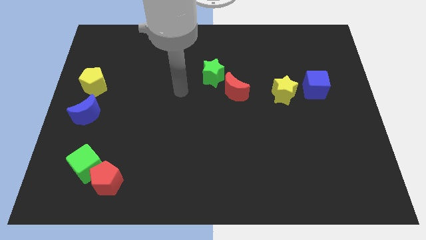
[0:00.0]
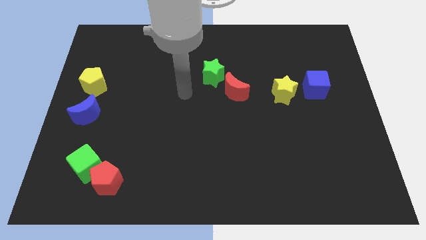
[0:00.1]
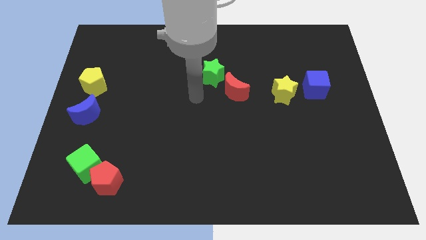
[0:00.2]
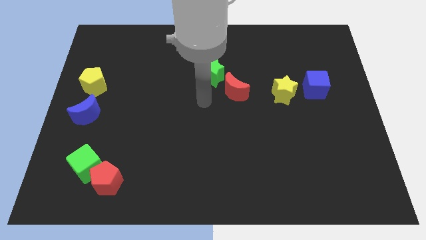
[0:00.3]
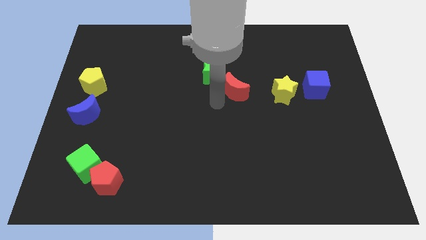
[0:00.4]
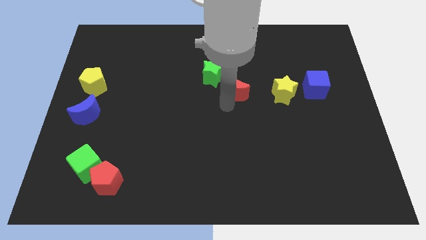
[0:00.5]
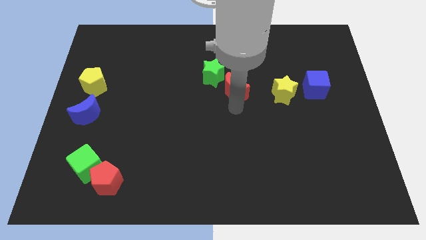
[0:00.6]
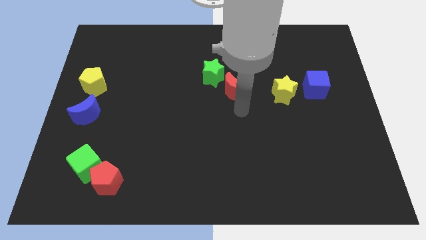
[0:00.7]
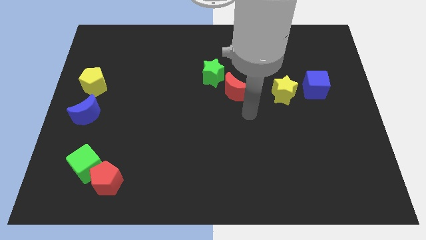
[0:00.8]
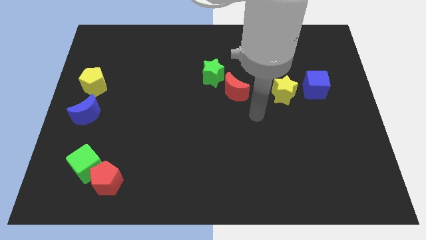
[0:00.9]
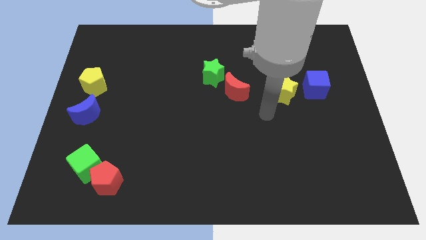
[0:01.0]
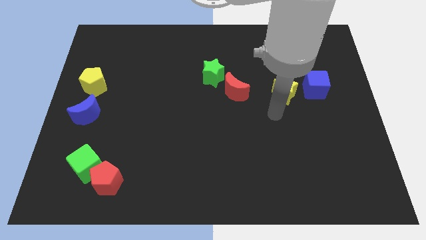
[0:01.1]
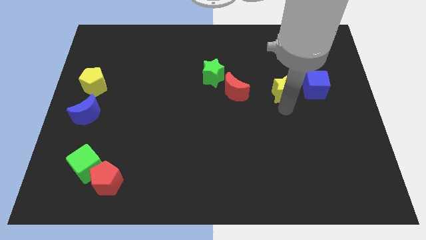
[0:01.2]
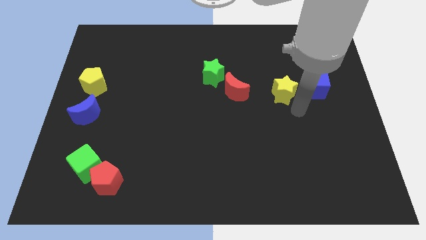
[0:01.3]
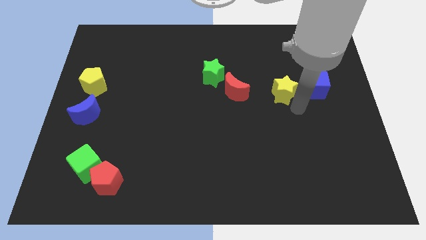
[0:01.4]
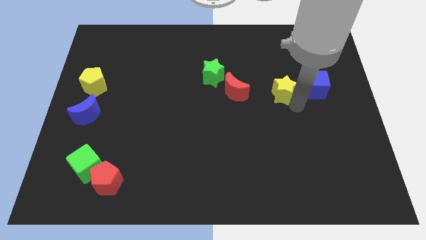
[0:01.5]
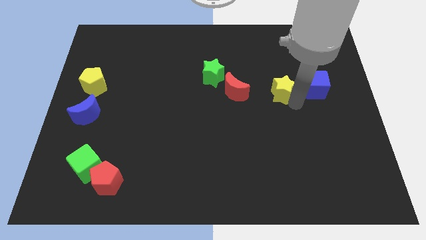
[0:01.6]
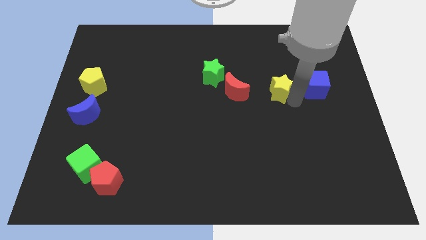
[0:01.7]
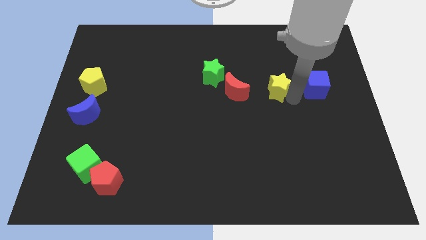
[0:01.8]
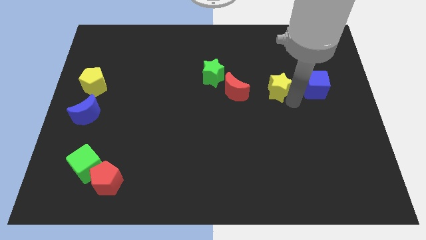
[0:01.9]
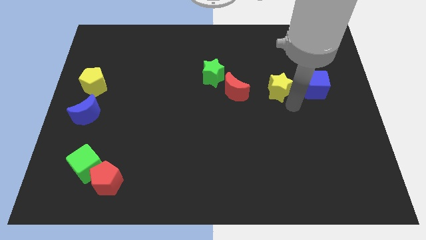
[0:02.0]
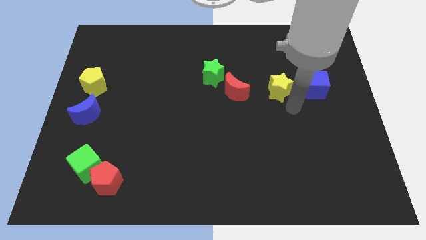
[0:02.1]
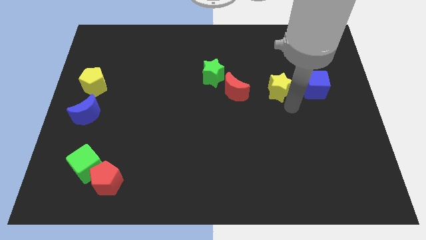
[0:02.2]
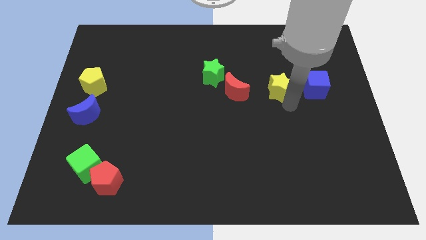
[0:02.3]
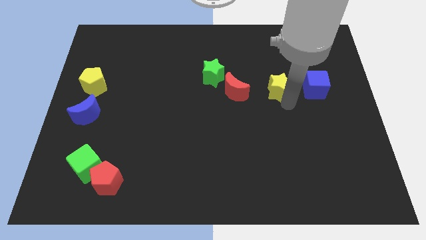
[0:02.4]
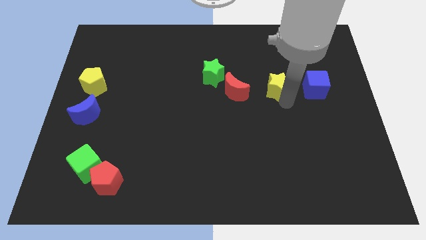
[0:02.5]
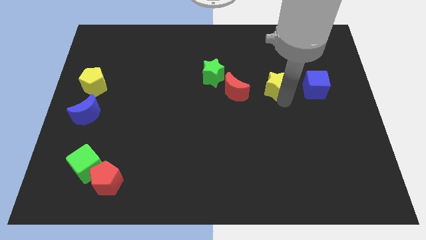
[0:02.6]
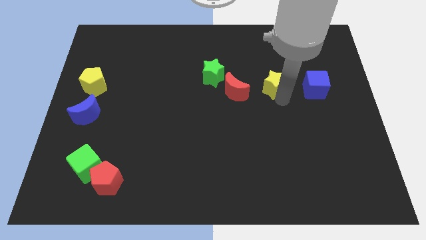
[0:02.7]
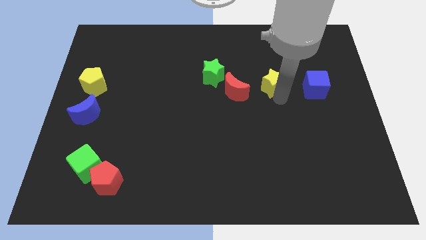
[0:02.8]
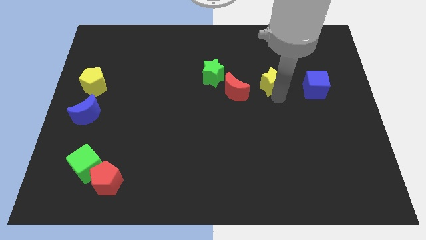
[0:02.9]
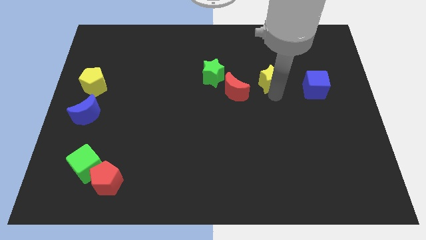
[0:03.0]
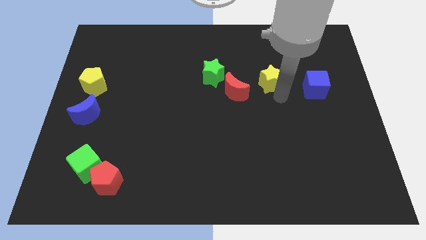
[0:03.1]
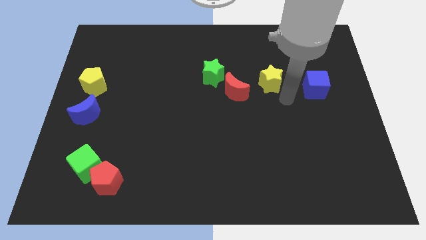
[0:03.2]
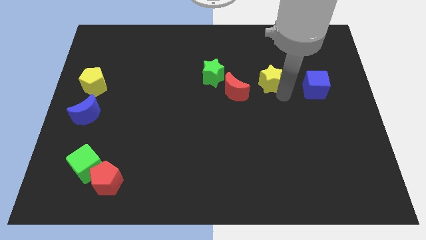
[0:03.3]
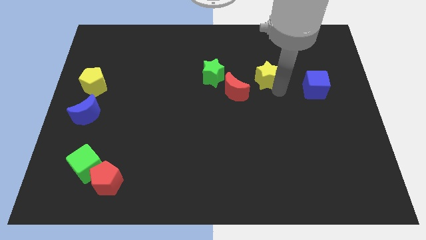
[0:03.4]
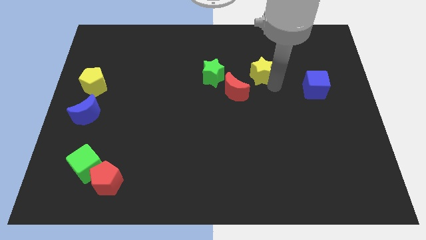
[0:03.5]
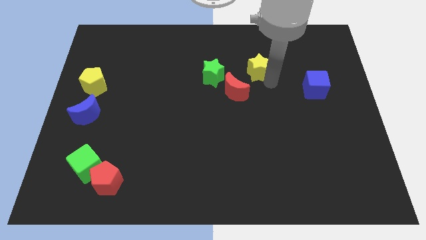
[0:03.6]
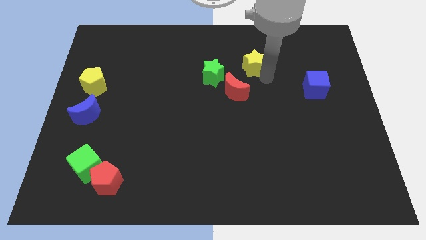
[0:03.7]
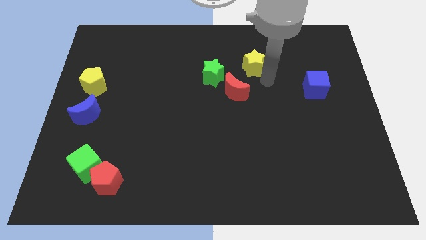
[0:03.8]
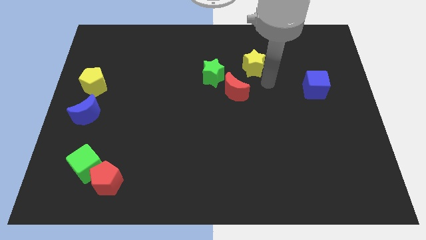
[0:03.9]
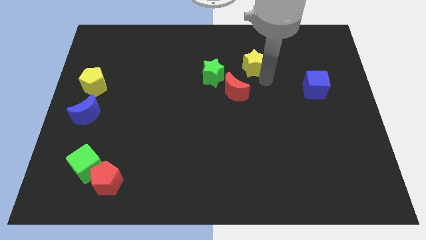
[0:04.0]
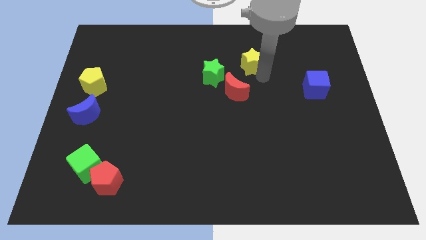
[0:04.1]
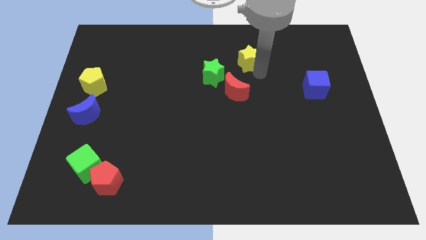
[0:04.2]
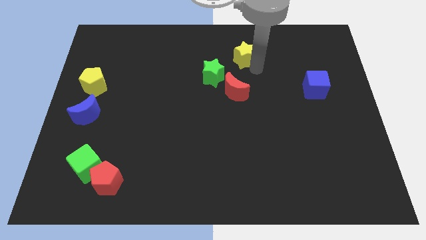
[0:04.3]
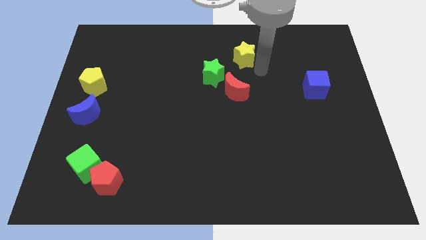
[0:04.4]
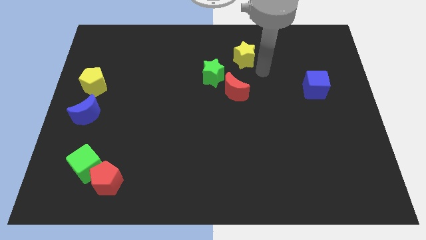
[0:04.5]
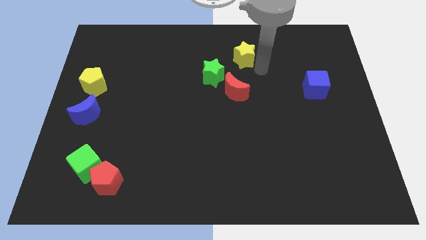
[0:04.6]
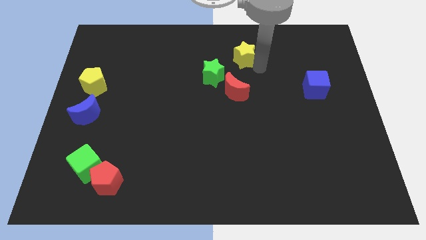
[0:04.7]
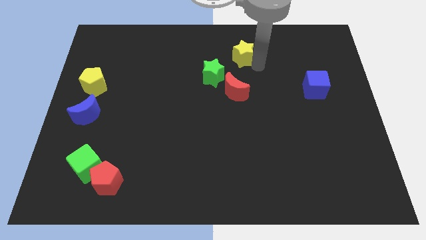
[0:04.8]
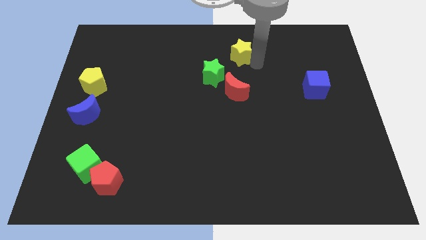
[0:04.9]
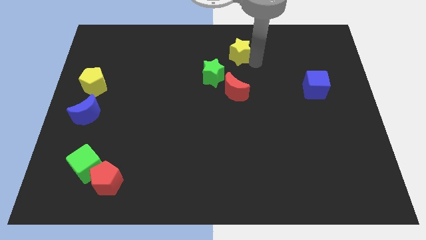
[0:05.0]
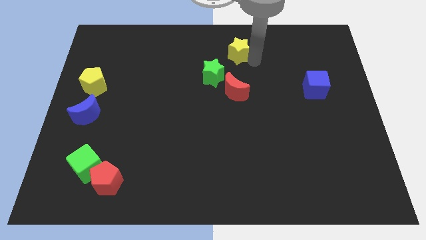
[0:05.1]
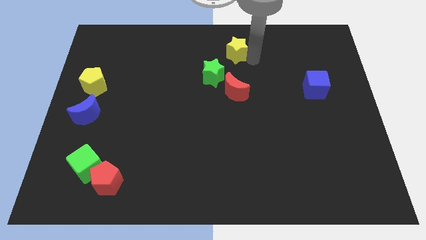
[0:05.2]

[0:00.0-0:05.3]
put the yellow star to the top

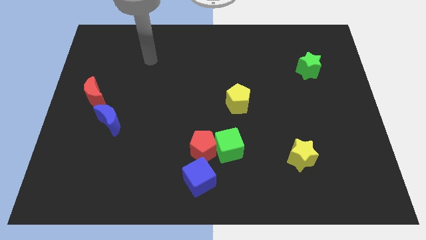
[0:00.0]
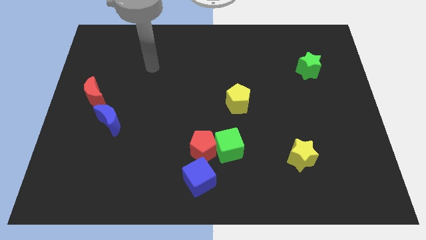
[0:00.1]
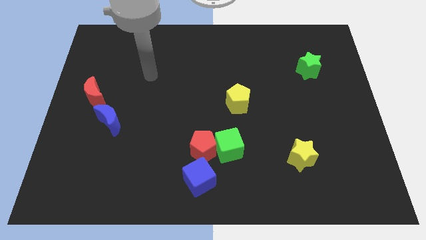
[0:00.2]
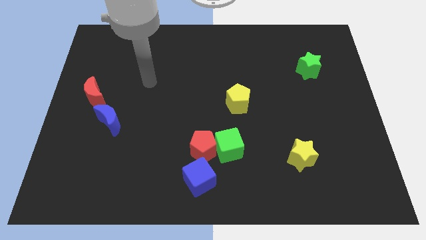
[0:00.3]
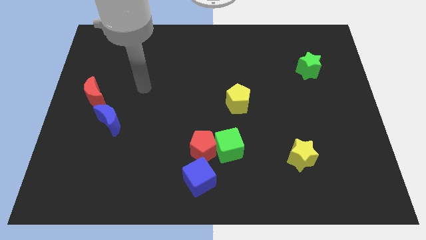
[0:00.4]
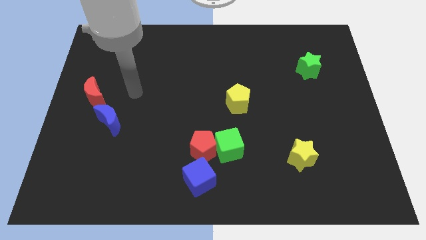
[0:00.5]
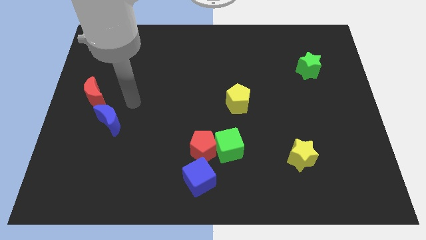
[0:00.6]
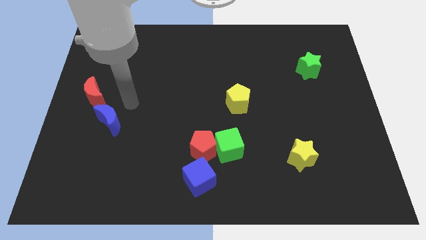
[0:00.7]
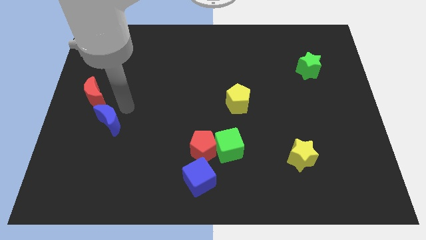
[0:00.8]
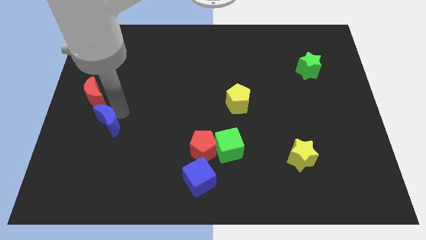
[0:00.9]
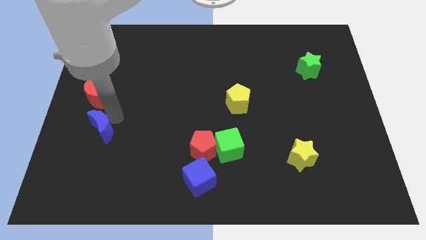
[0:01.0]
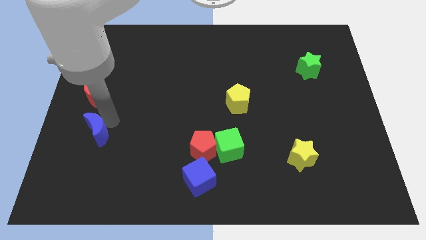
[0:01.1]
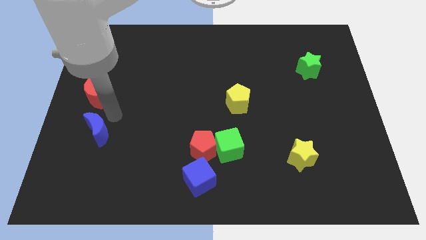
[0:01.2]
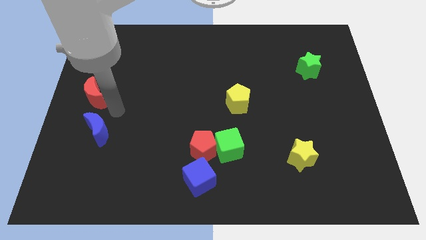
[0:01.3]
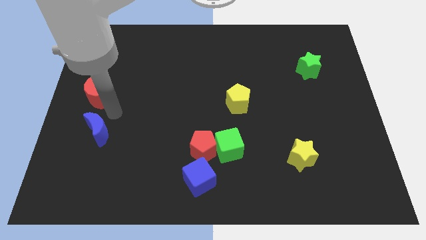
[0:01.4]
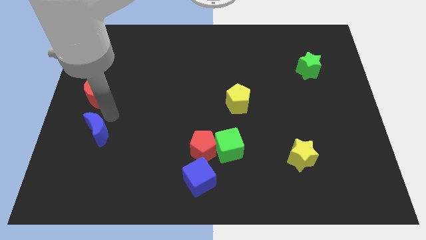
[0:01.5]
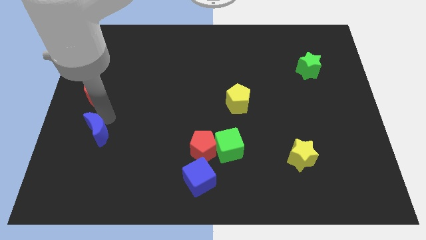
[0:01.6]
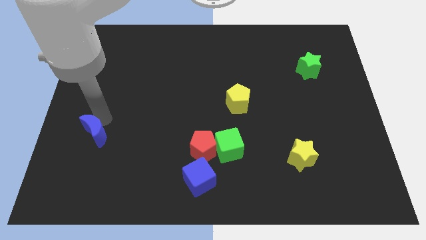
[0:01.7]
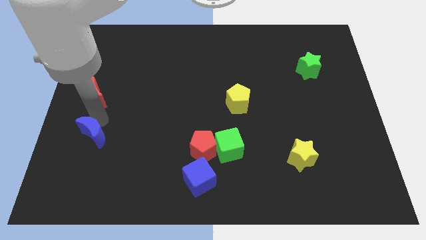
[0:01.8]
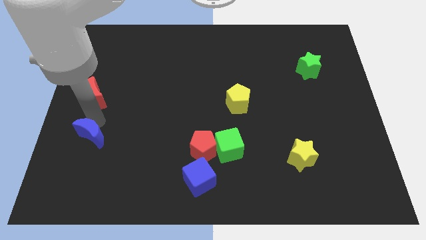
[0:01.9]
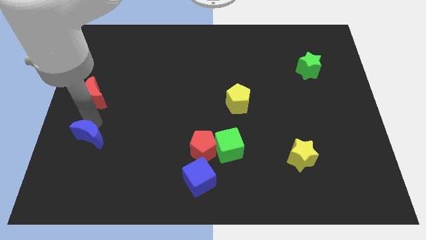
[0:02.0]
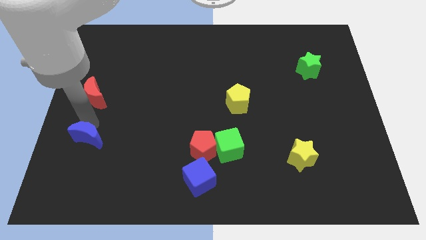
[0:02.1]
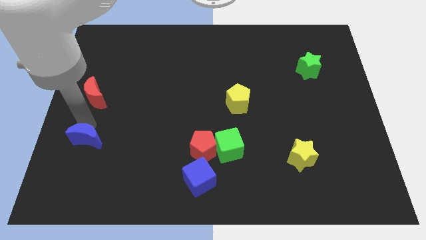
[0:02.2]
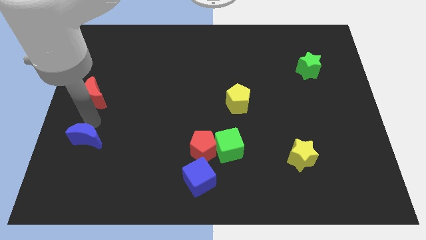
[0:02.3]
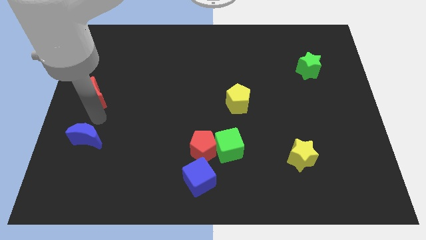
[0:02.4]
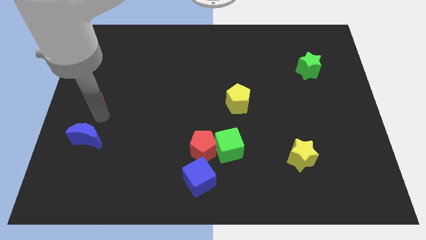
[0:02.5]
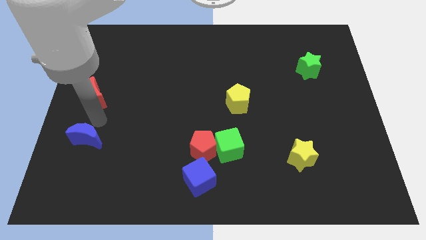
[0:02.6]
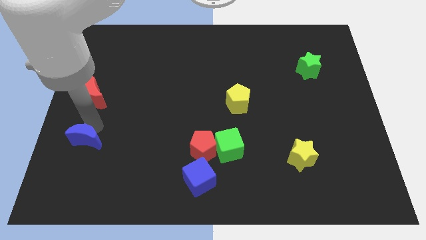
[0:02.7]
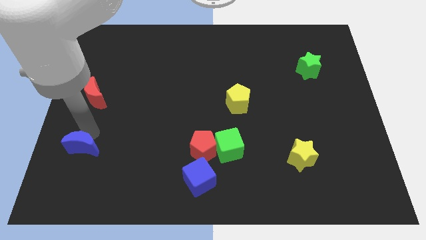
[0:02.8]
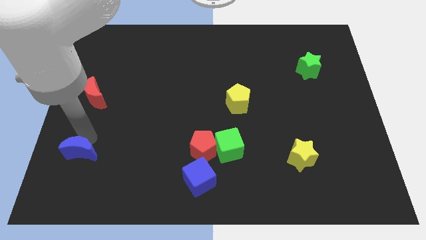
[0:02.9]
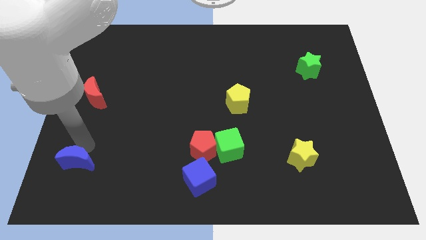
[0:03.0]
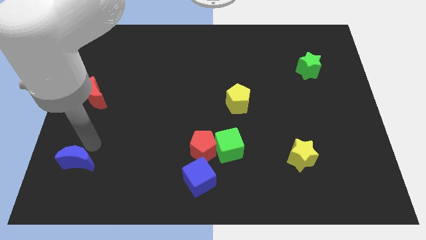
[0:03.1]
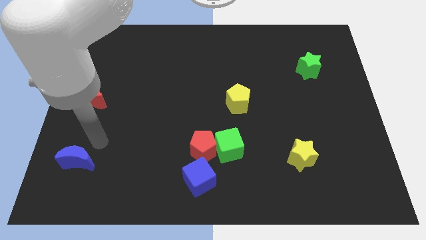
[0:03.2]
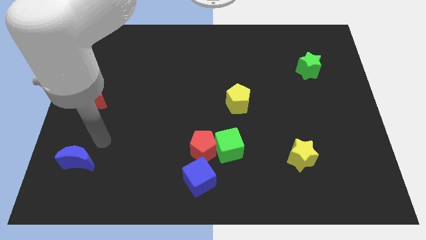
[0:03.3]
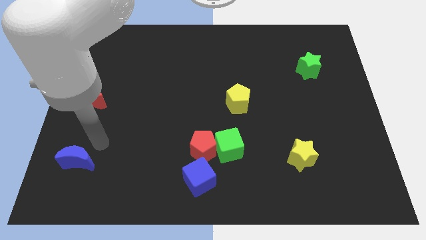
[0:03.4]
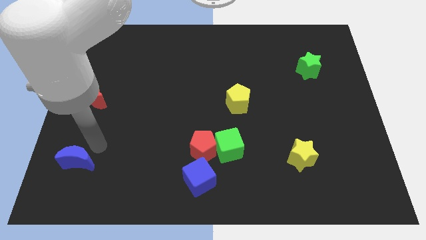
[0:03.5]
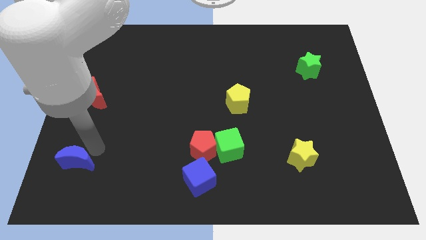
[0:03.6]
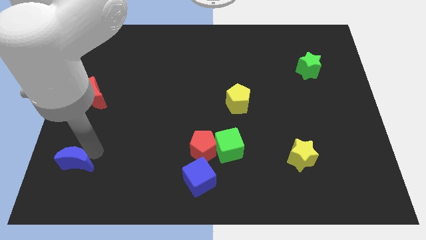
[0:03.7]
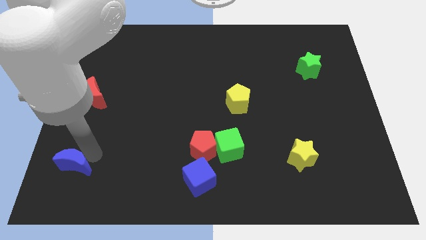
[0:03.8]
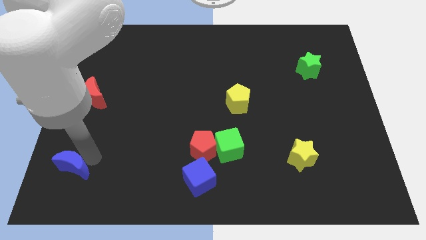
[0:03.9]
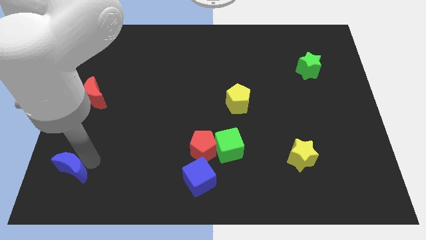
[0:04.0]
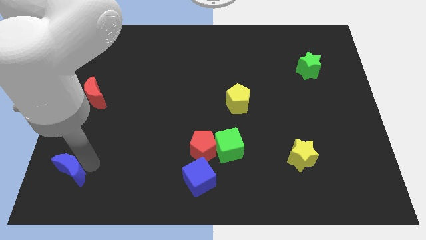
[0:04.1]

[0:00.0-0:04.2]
push the blue moon to the bottom left
